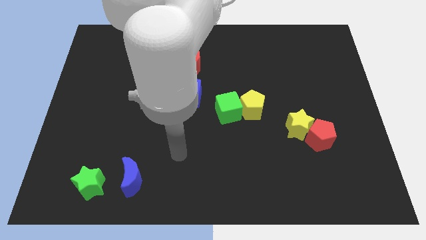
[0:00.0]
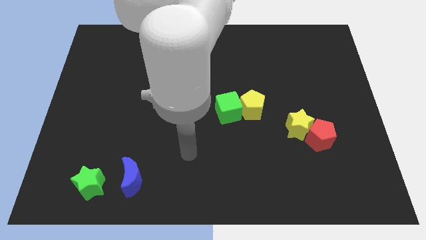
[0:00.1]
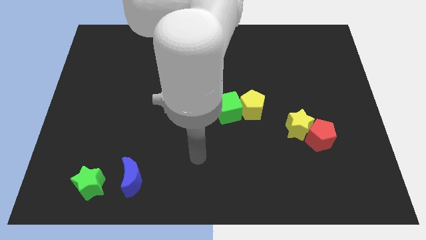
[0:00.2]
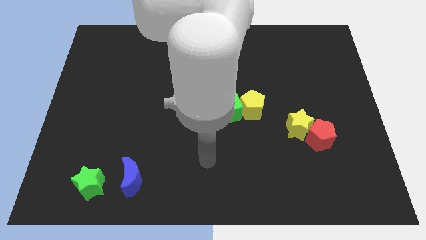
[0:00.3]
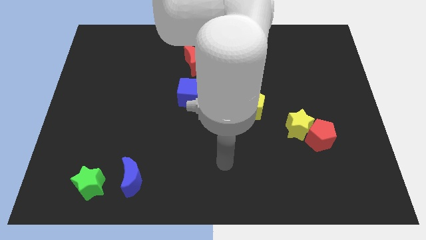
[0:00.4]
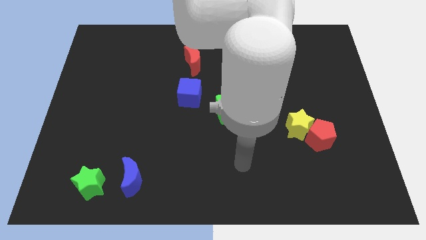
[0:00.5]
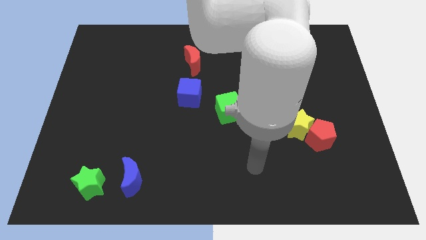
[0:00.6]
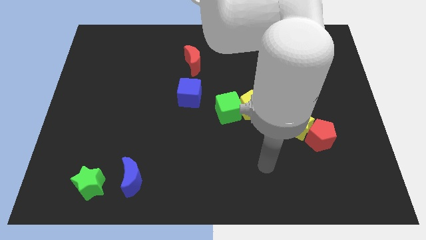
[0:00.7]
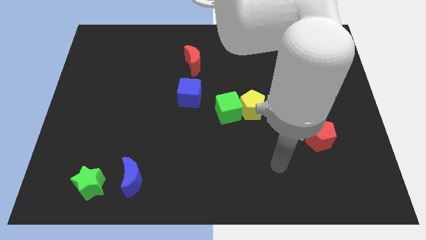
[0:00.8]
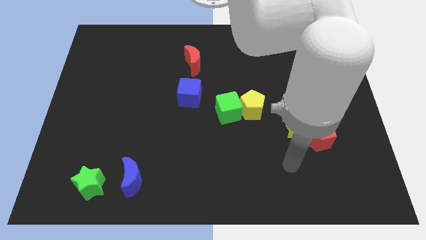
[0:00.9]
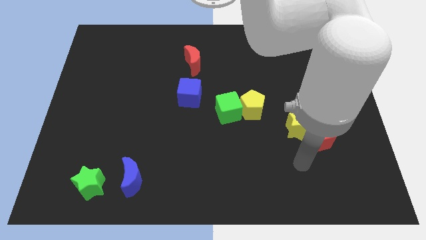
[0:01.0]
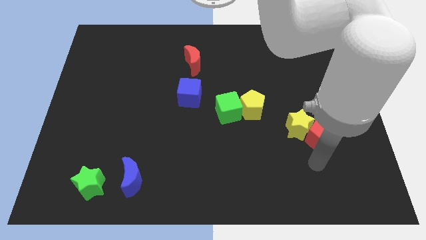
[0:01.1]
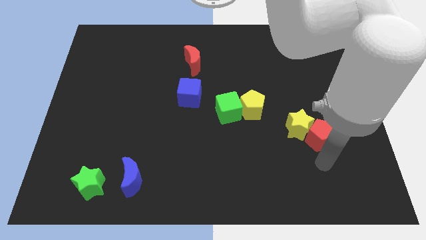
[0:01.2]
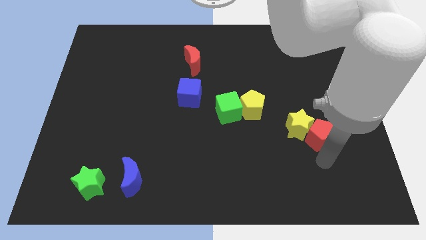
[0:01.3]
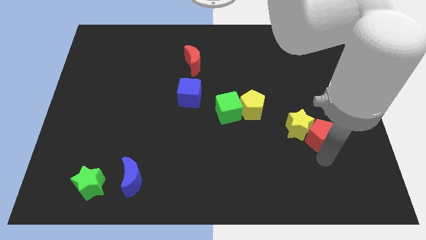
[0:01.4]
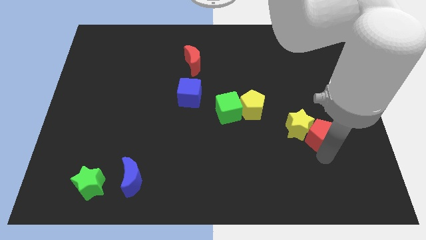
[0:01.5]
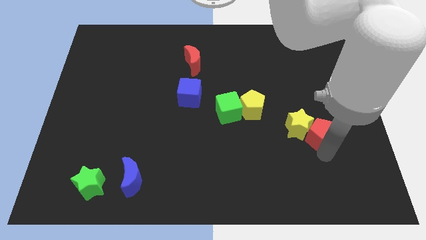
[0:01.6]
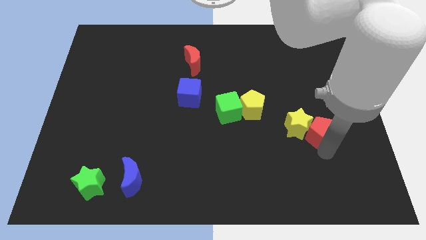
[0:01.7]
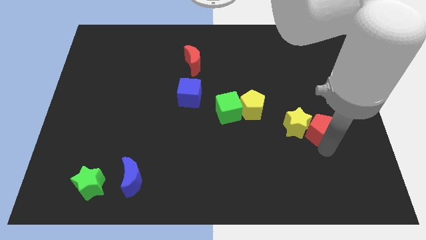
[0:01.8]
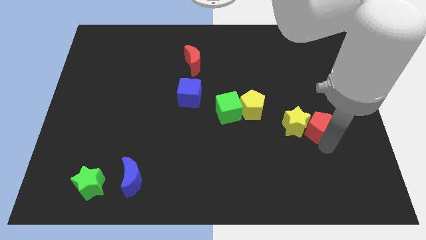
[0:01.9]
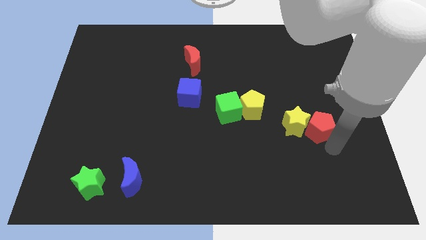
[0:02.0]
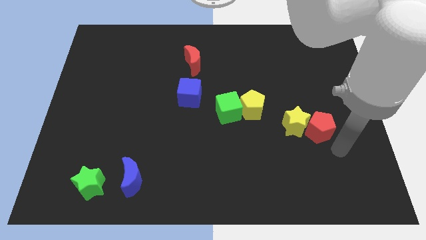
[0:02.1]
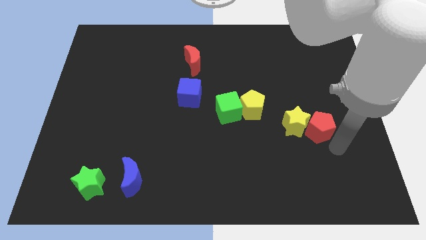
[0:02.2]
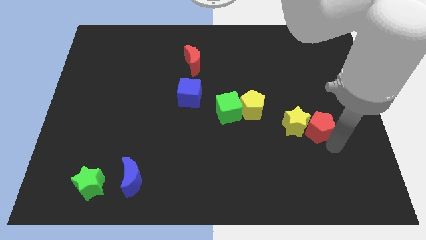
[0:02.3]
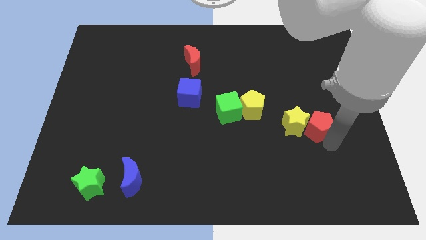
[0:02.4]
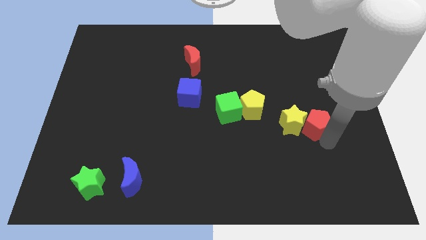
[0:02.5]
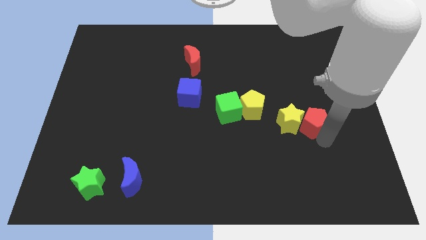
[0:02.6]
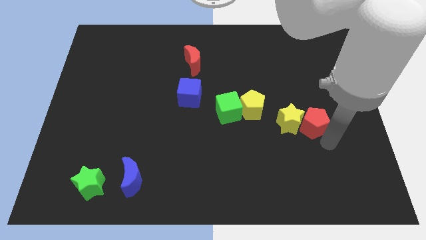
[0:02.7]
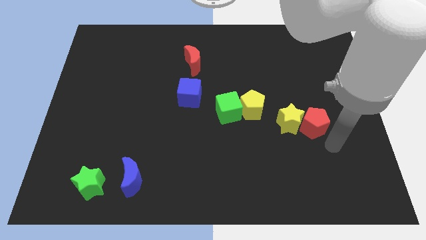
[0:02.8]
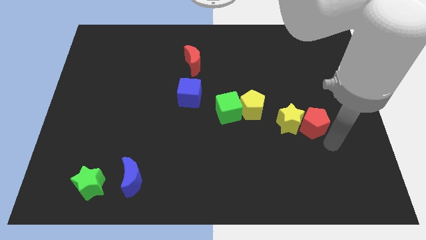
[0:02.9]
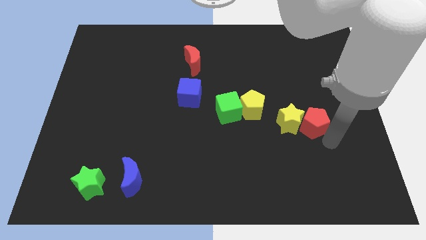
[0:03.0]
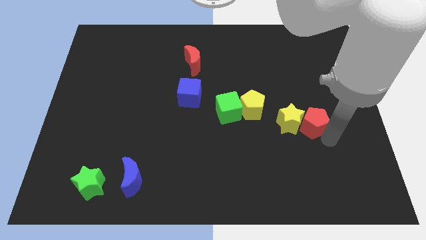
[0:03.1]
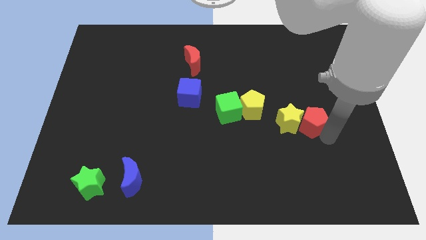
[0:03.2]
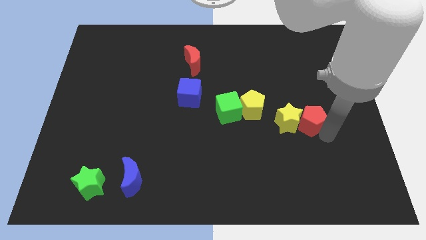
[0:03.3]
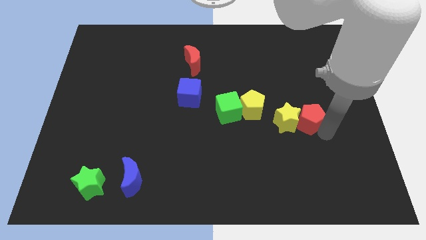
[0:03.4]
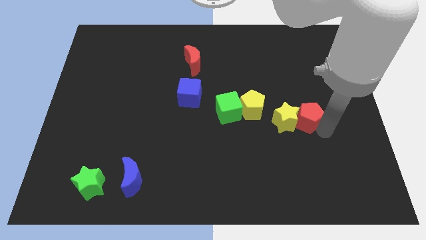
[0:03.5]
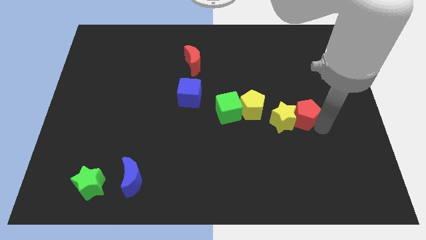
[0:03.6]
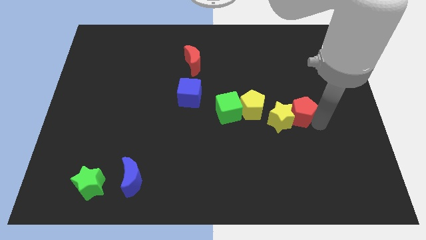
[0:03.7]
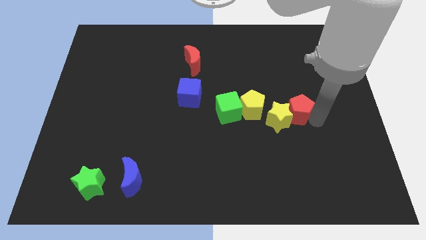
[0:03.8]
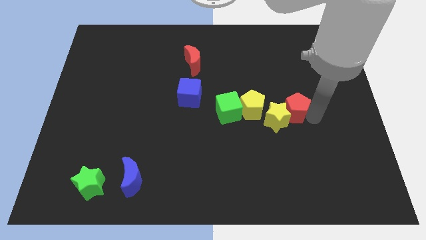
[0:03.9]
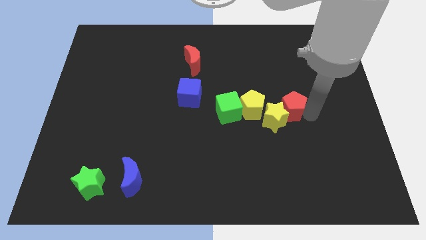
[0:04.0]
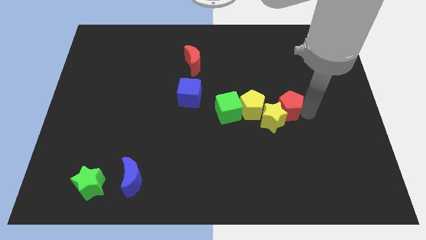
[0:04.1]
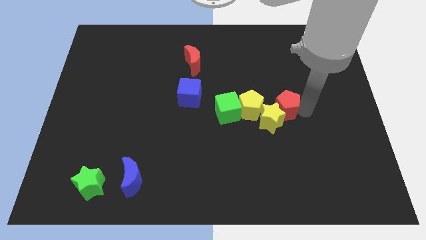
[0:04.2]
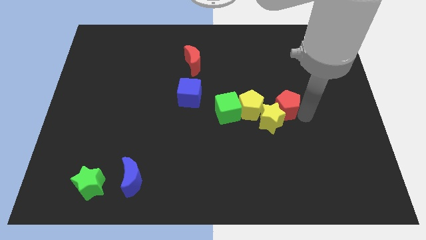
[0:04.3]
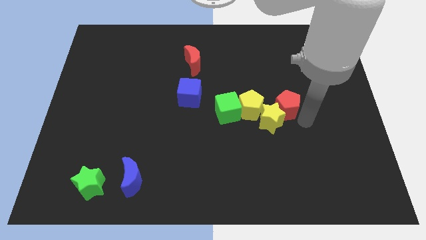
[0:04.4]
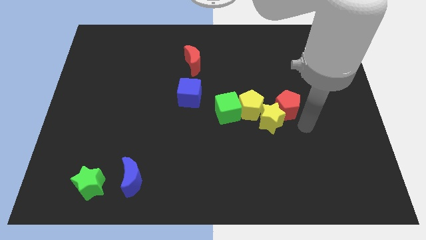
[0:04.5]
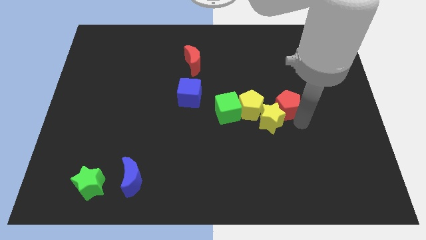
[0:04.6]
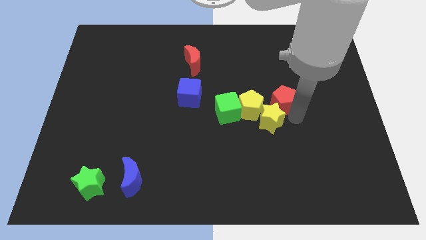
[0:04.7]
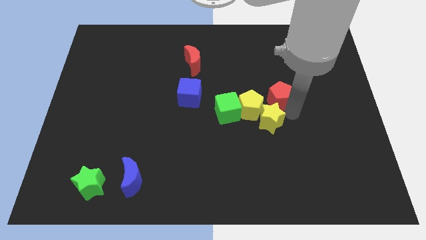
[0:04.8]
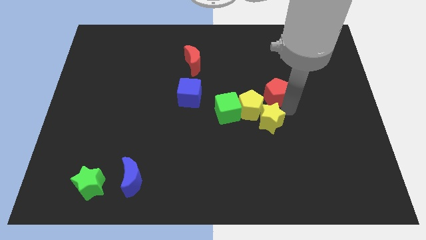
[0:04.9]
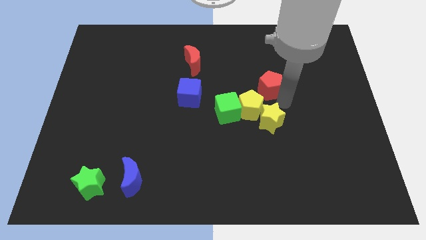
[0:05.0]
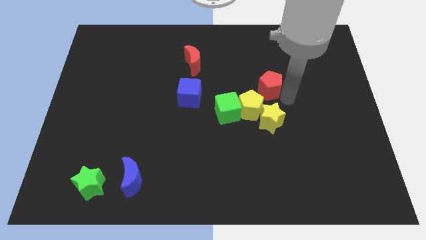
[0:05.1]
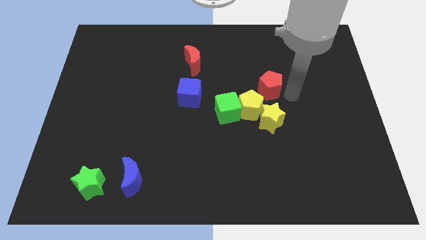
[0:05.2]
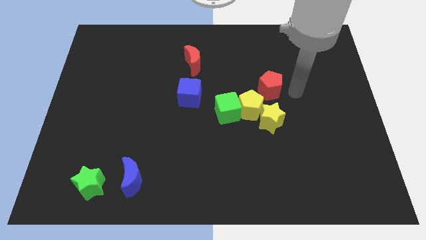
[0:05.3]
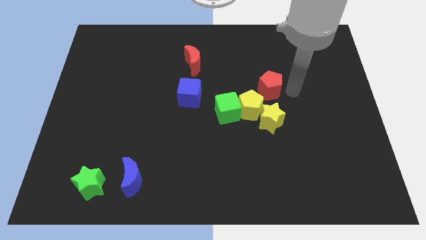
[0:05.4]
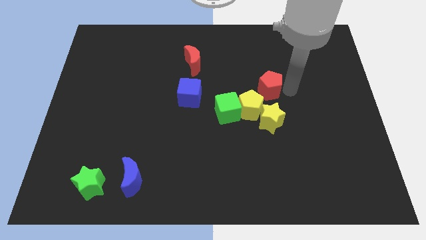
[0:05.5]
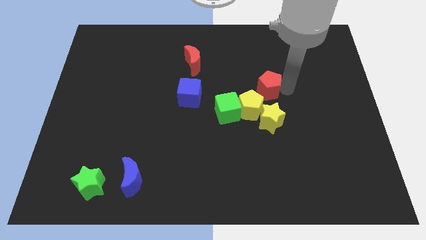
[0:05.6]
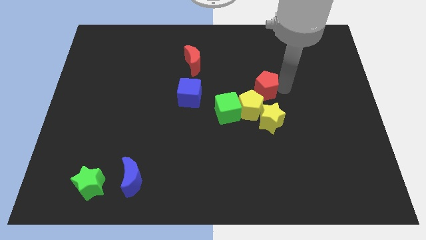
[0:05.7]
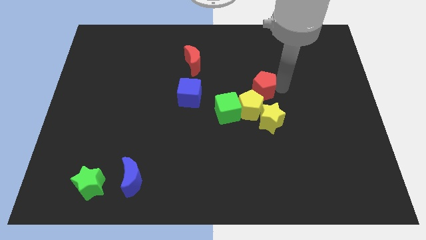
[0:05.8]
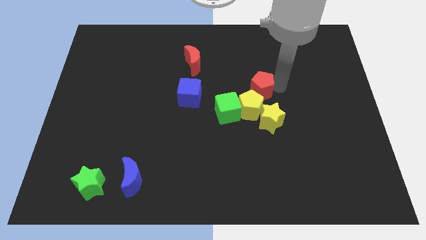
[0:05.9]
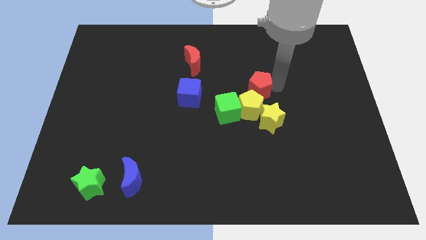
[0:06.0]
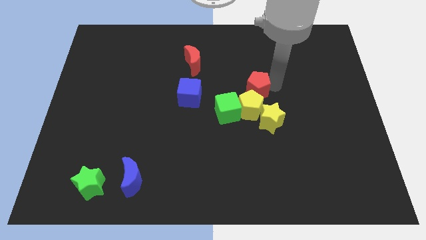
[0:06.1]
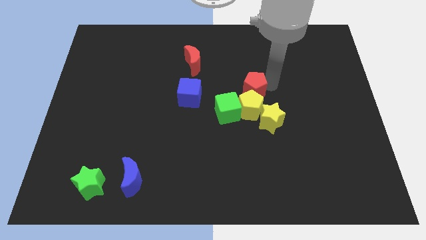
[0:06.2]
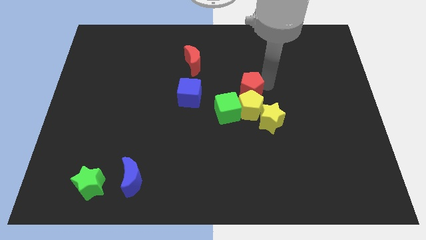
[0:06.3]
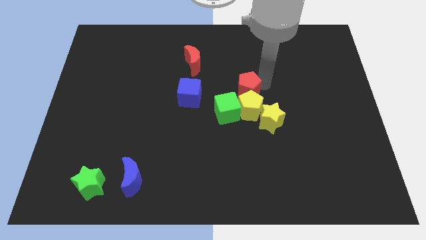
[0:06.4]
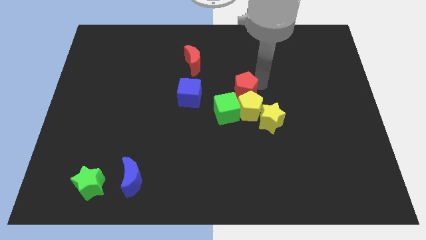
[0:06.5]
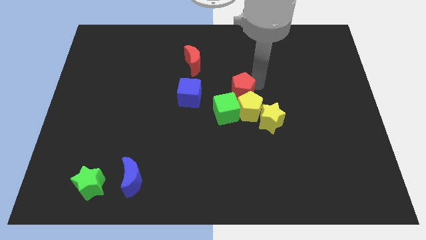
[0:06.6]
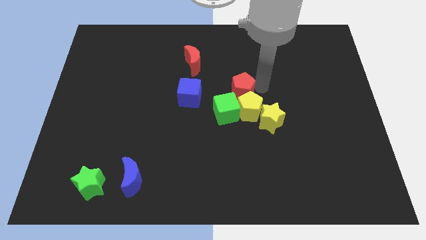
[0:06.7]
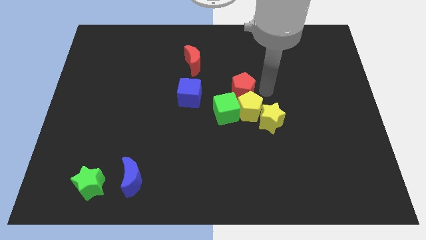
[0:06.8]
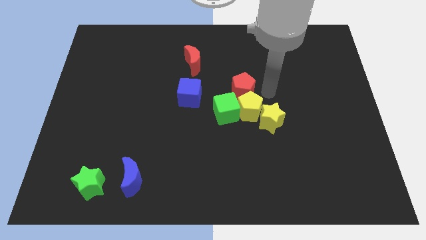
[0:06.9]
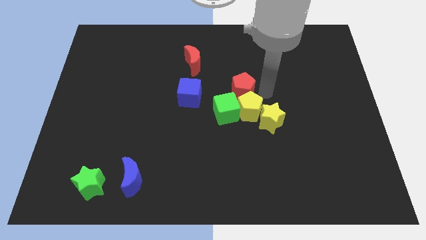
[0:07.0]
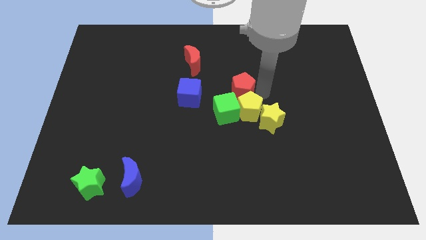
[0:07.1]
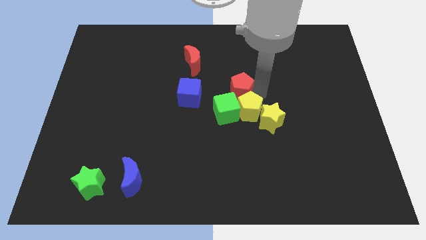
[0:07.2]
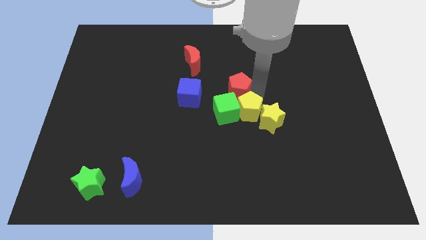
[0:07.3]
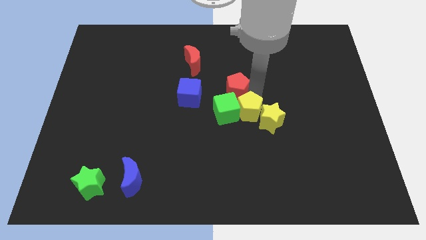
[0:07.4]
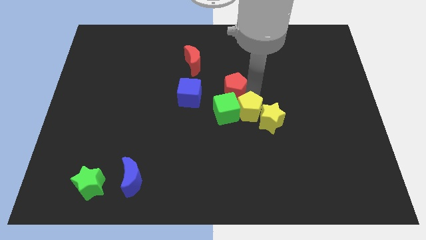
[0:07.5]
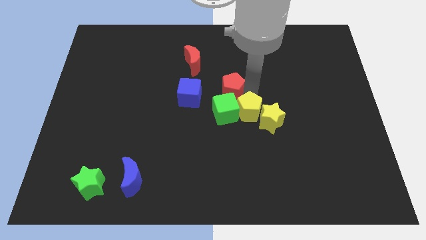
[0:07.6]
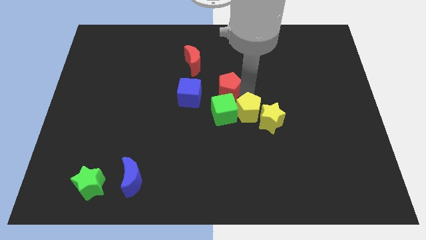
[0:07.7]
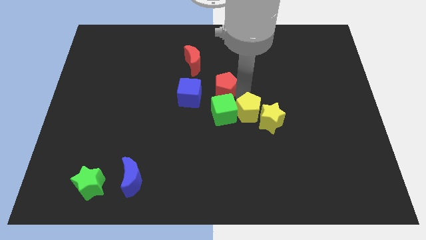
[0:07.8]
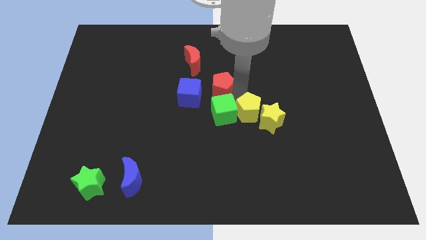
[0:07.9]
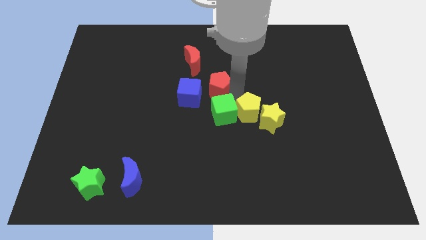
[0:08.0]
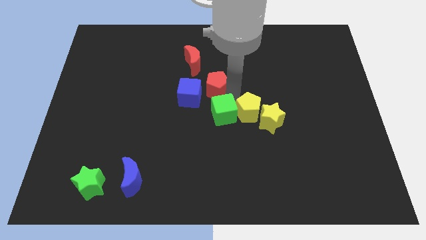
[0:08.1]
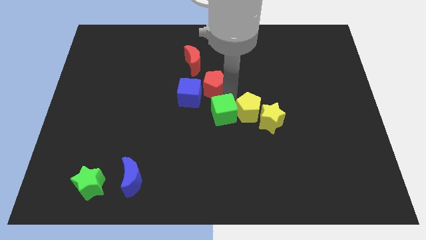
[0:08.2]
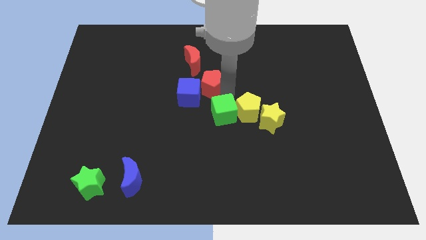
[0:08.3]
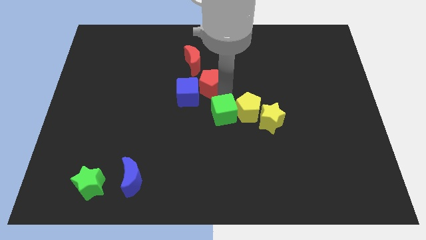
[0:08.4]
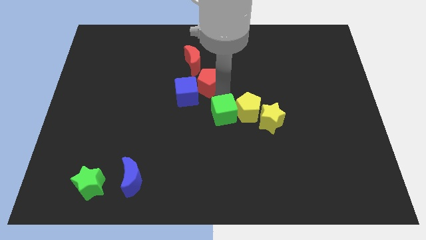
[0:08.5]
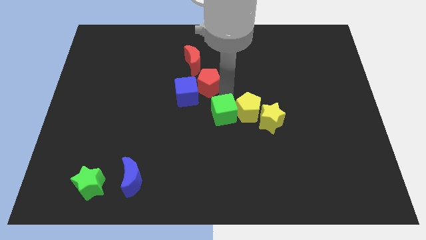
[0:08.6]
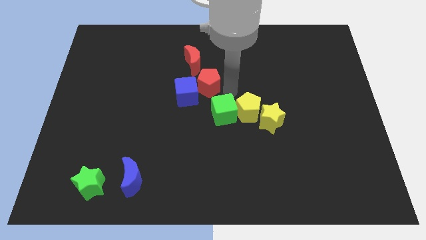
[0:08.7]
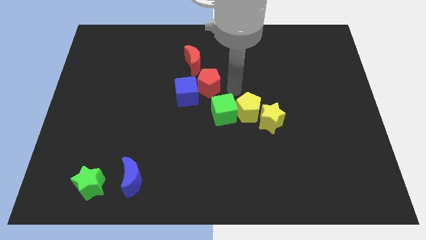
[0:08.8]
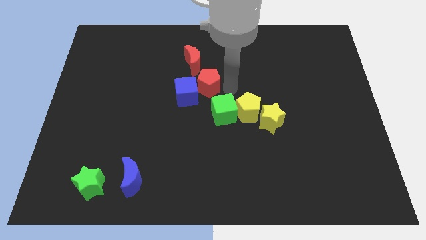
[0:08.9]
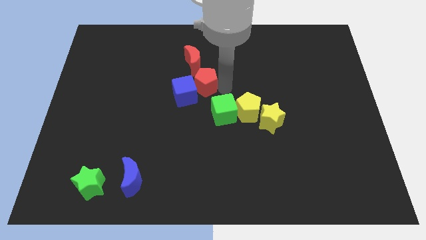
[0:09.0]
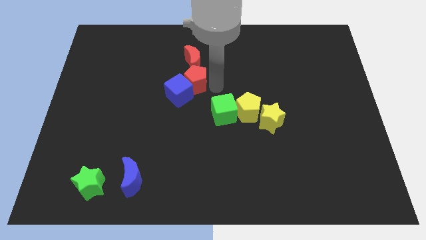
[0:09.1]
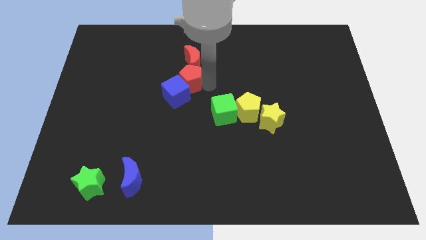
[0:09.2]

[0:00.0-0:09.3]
push the red pentagon to the bottom left of the red moon
